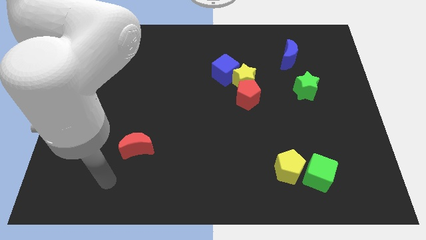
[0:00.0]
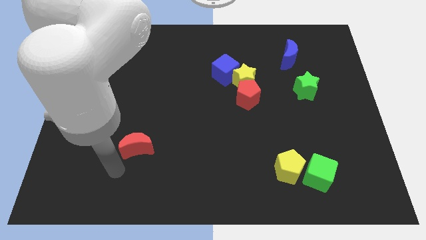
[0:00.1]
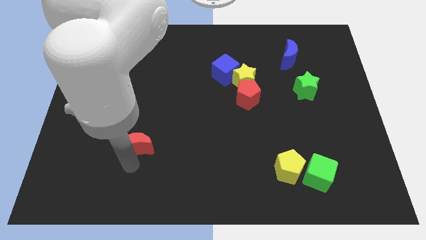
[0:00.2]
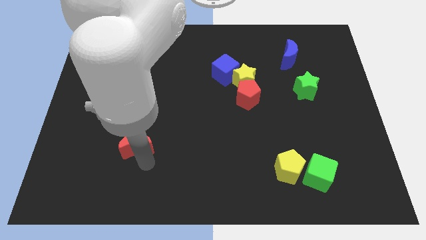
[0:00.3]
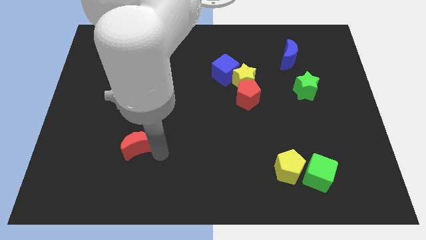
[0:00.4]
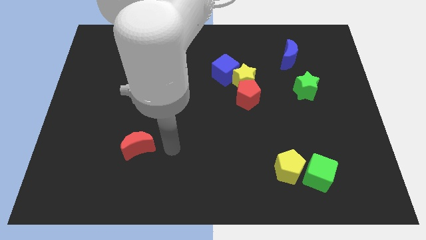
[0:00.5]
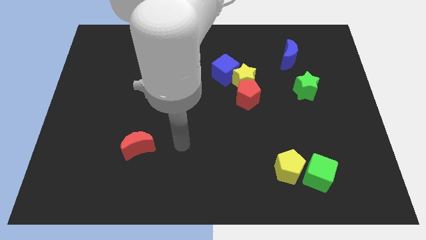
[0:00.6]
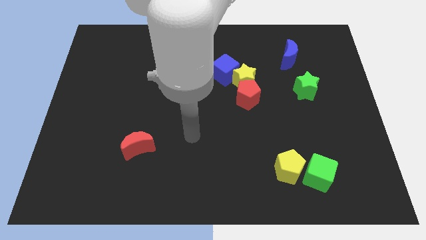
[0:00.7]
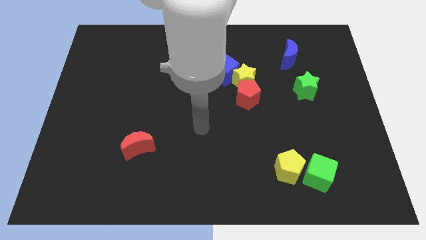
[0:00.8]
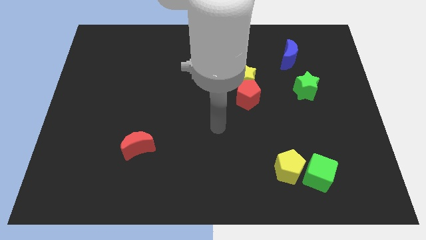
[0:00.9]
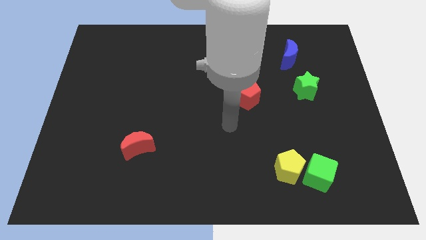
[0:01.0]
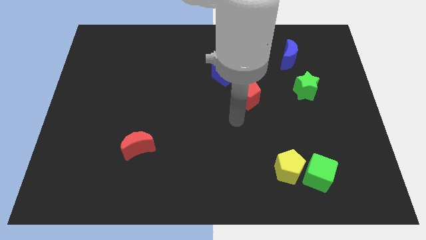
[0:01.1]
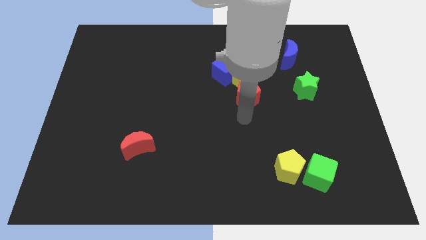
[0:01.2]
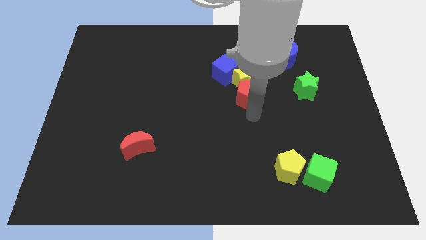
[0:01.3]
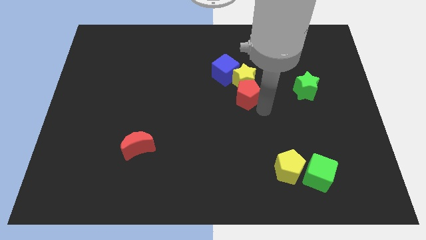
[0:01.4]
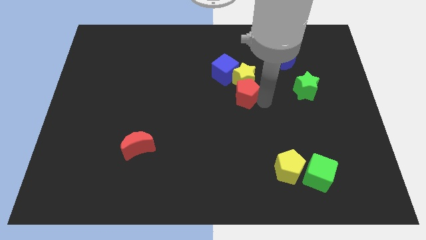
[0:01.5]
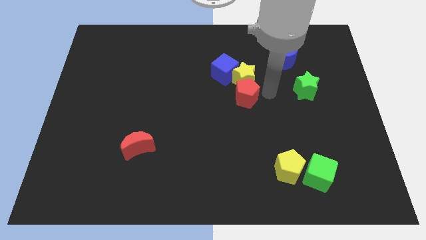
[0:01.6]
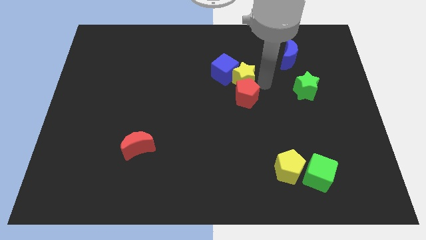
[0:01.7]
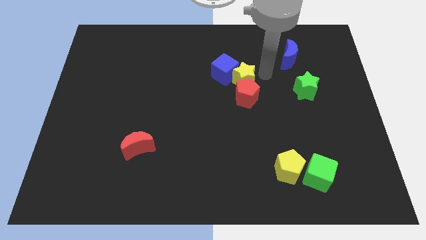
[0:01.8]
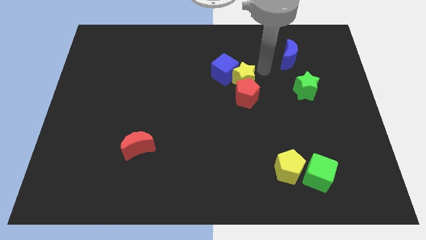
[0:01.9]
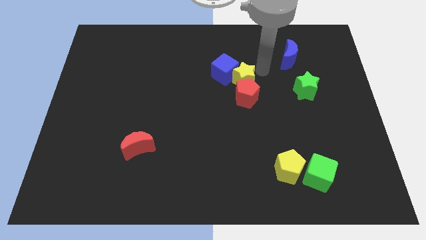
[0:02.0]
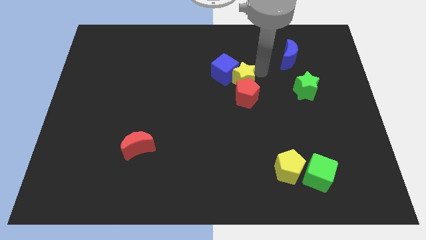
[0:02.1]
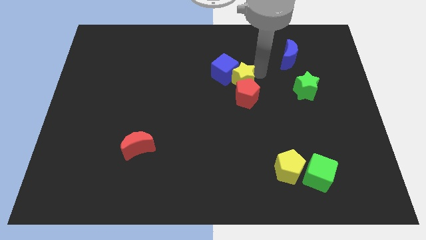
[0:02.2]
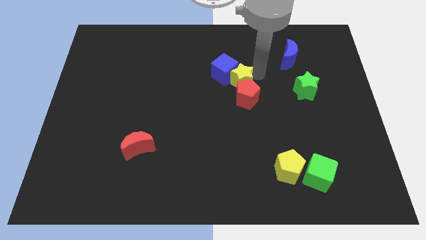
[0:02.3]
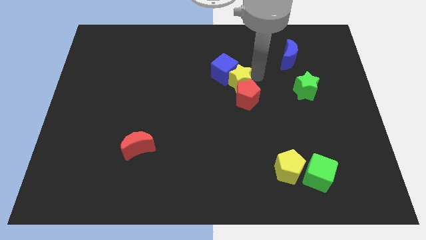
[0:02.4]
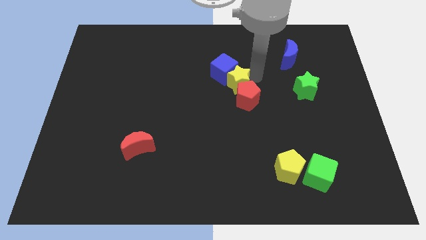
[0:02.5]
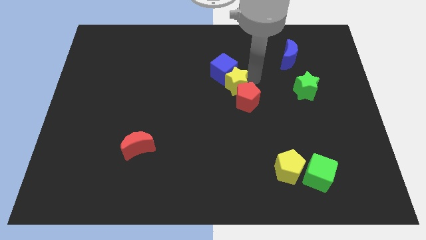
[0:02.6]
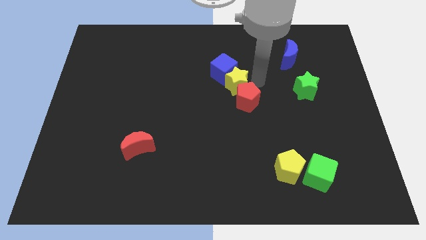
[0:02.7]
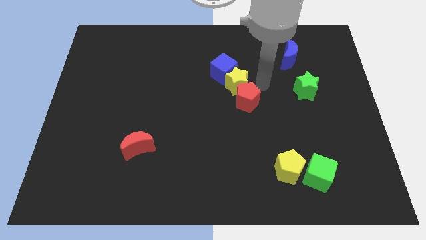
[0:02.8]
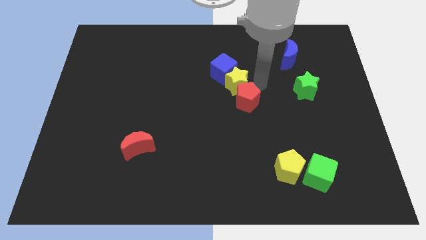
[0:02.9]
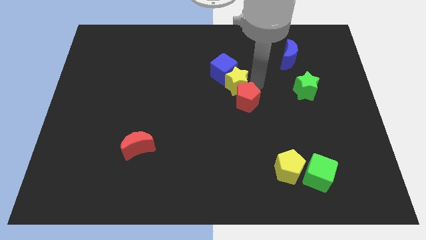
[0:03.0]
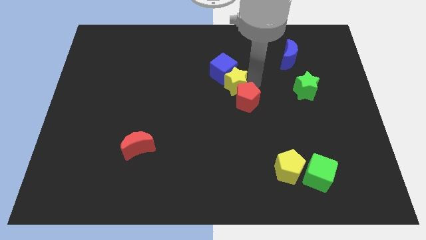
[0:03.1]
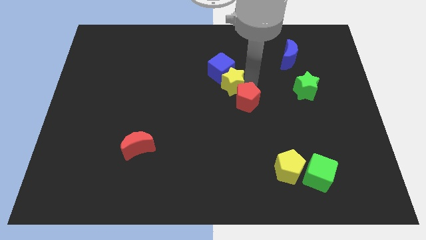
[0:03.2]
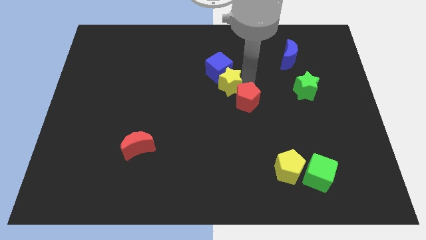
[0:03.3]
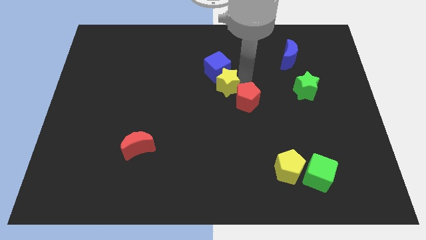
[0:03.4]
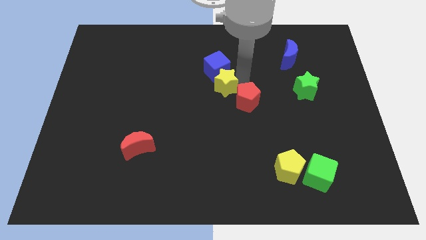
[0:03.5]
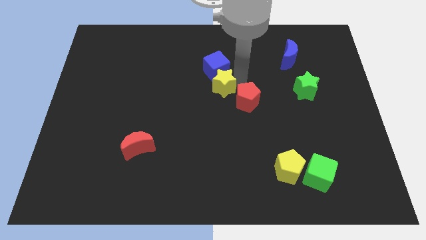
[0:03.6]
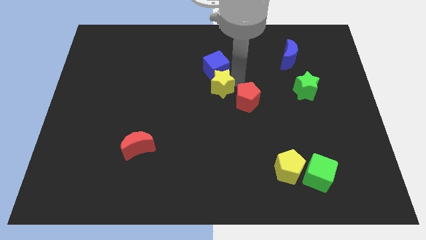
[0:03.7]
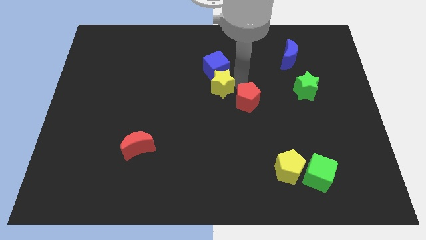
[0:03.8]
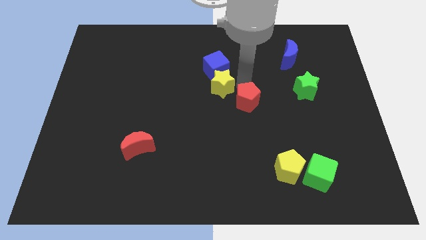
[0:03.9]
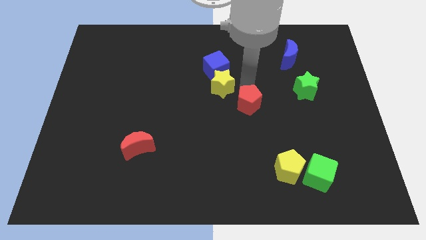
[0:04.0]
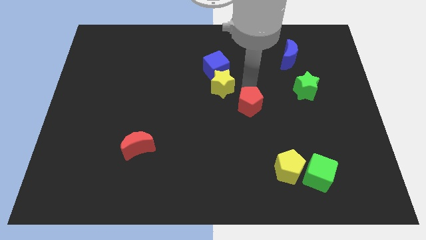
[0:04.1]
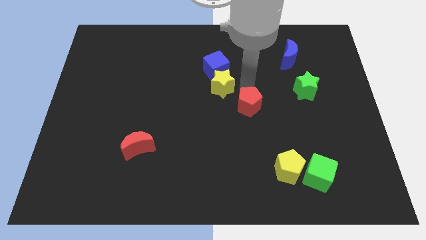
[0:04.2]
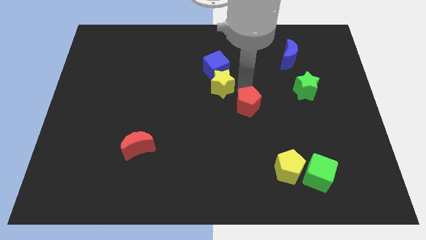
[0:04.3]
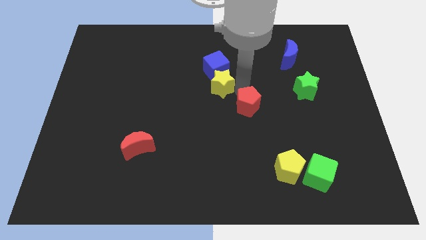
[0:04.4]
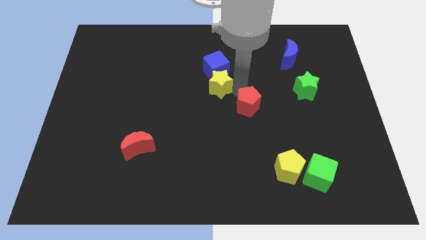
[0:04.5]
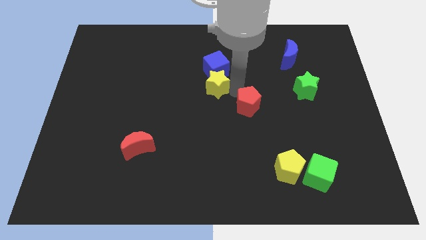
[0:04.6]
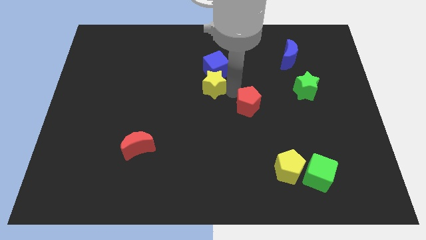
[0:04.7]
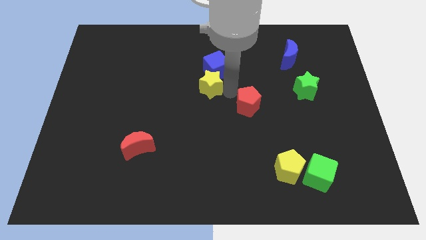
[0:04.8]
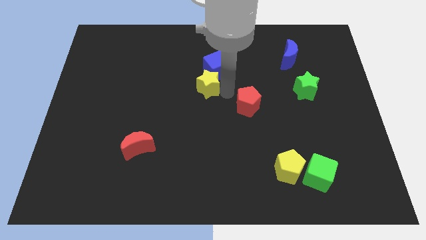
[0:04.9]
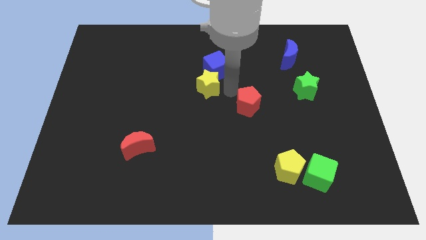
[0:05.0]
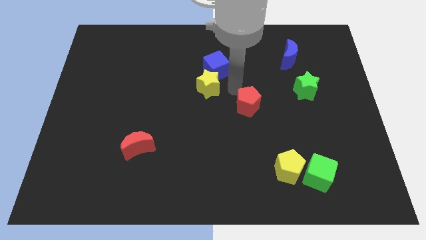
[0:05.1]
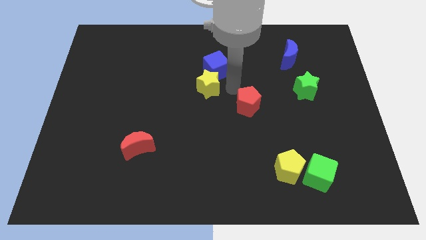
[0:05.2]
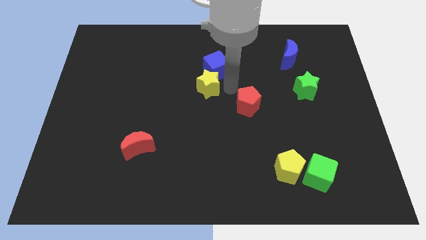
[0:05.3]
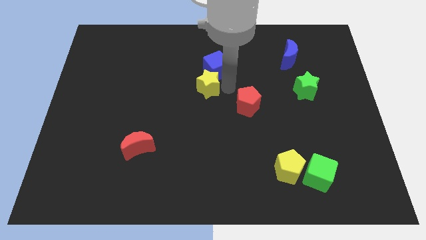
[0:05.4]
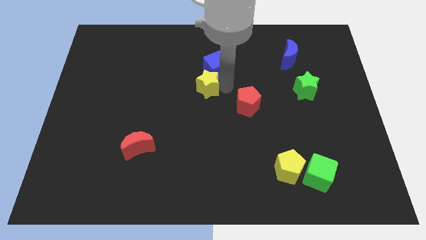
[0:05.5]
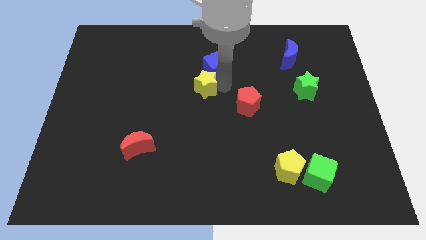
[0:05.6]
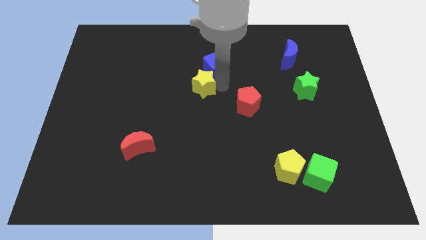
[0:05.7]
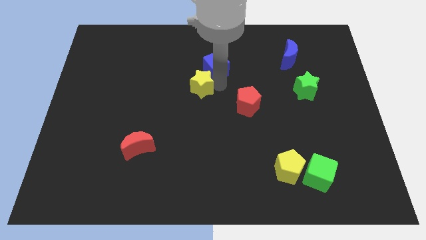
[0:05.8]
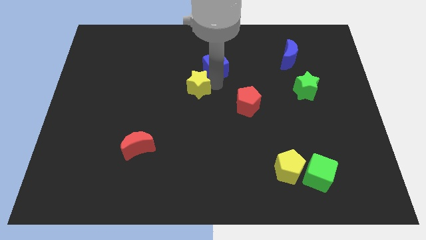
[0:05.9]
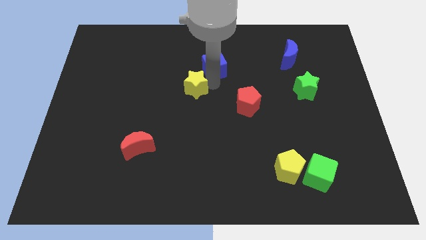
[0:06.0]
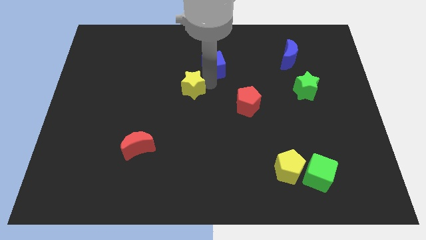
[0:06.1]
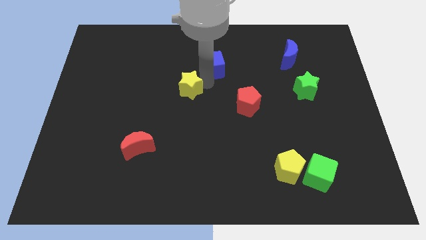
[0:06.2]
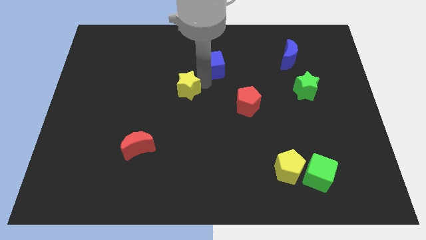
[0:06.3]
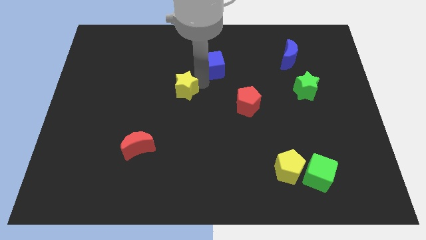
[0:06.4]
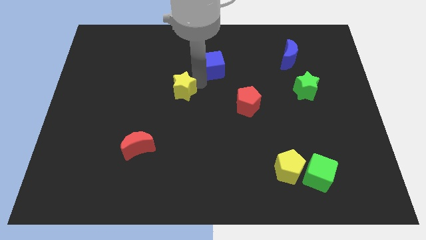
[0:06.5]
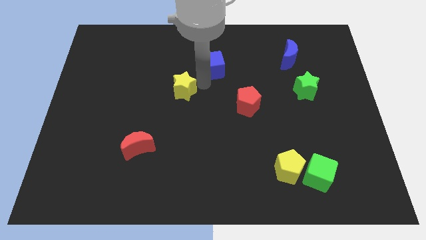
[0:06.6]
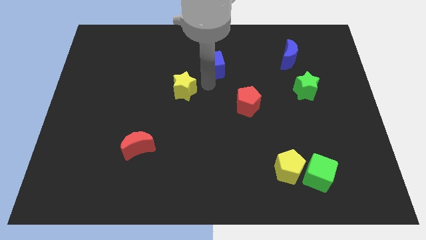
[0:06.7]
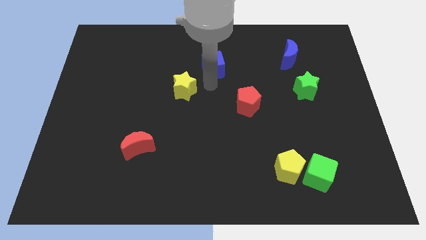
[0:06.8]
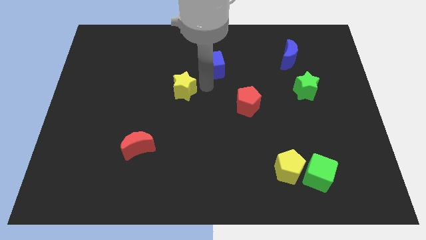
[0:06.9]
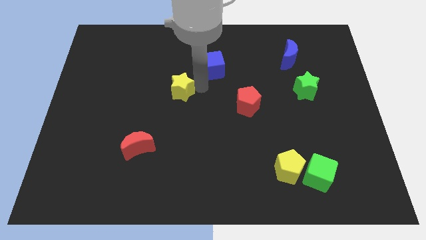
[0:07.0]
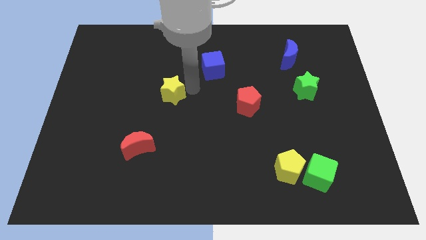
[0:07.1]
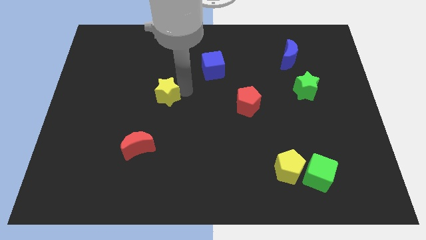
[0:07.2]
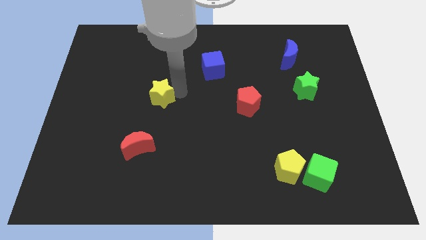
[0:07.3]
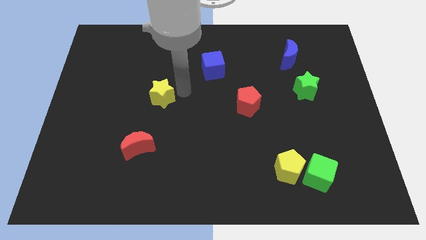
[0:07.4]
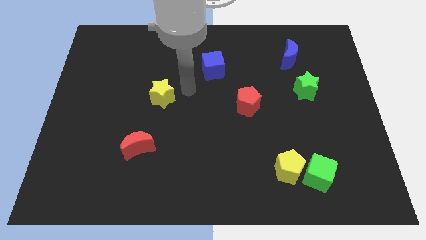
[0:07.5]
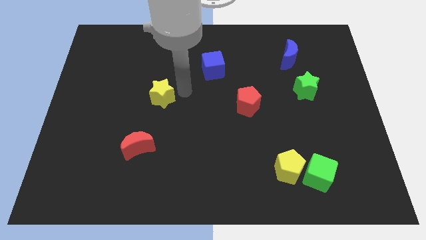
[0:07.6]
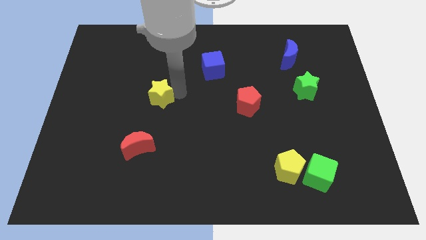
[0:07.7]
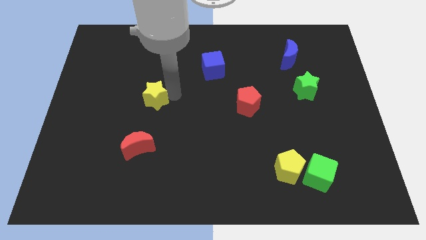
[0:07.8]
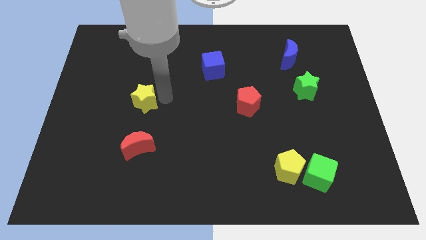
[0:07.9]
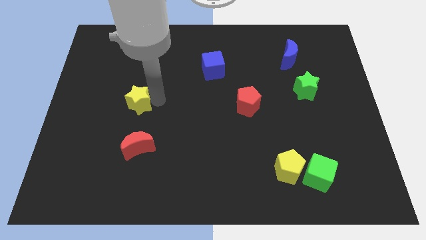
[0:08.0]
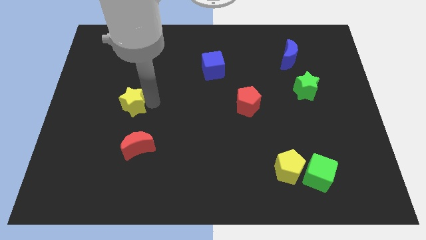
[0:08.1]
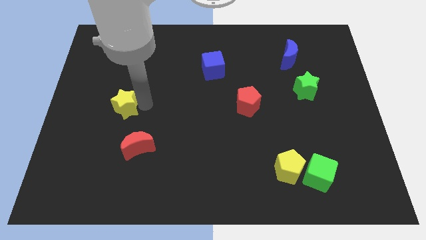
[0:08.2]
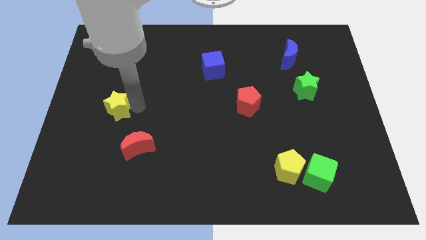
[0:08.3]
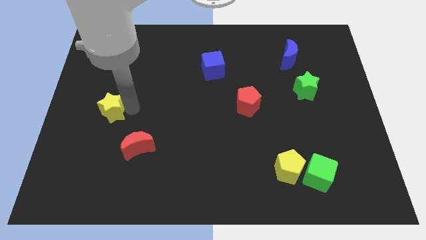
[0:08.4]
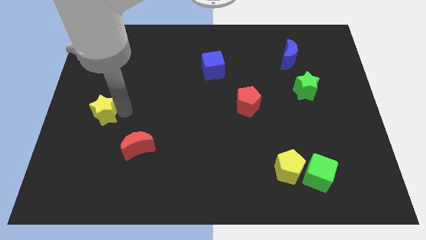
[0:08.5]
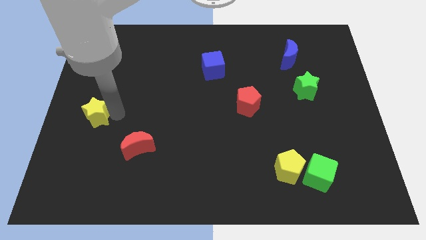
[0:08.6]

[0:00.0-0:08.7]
push the yellow star to the center left
